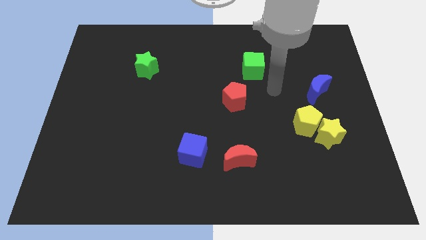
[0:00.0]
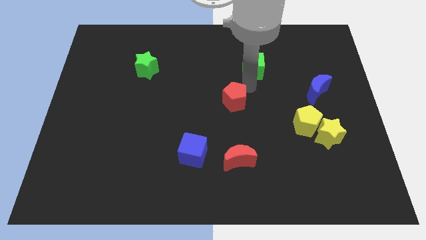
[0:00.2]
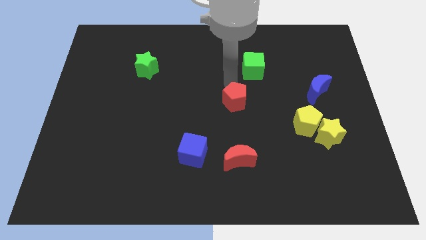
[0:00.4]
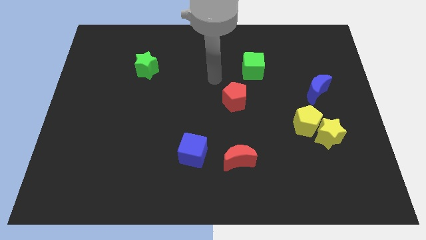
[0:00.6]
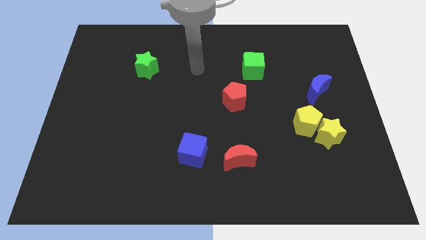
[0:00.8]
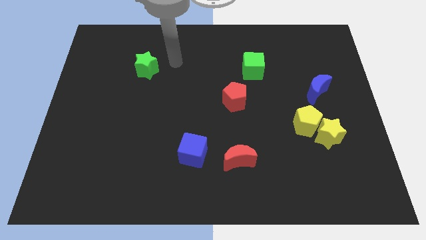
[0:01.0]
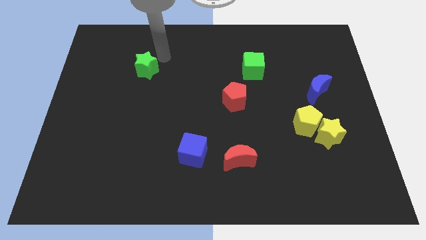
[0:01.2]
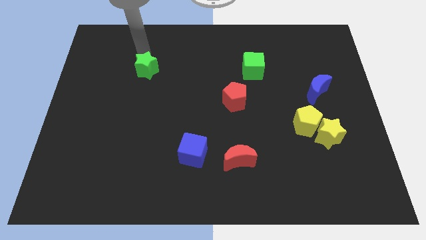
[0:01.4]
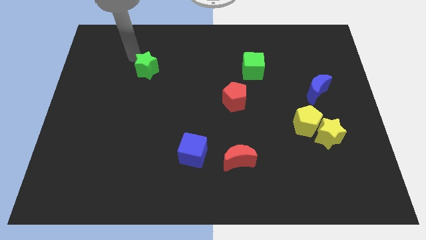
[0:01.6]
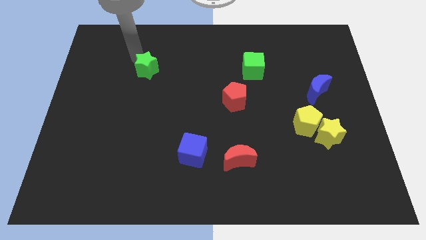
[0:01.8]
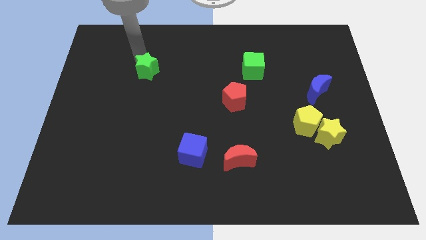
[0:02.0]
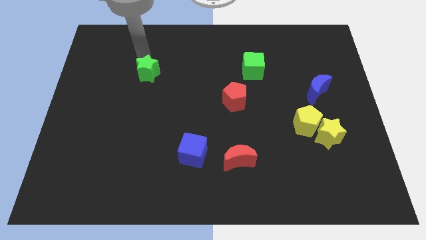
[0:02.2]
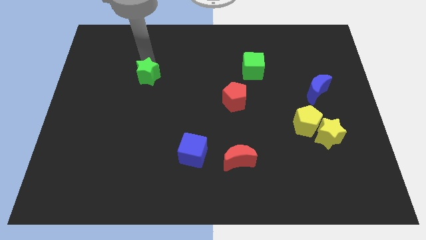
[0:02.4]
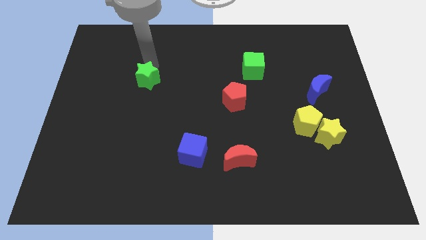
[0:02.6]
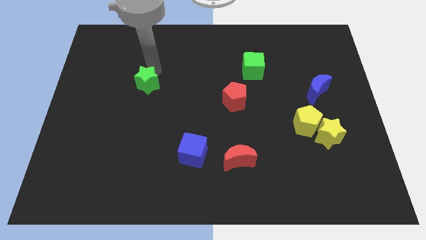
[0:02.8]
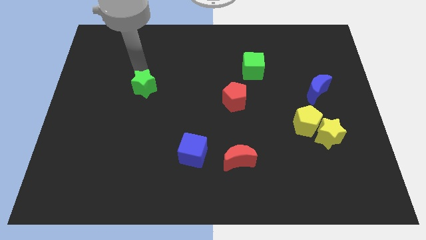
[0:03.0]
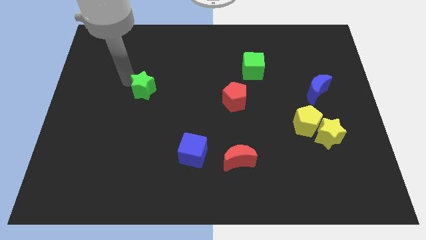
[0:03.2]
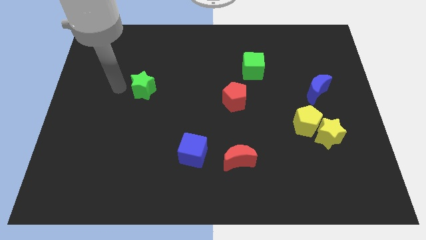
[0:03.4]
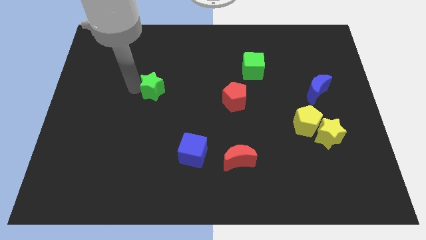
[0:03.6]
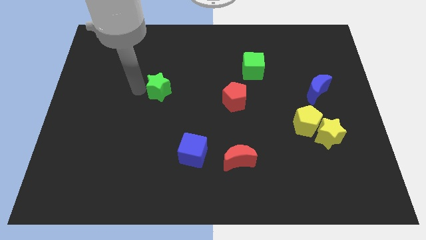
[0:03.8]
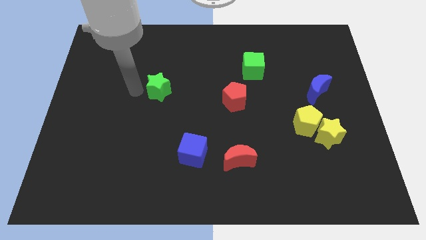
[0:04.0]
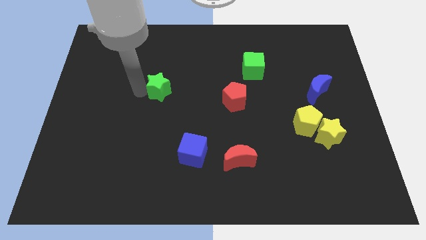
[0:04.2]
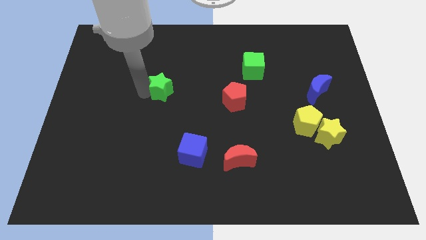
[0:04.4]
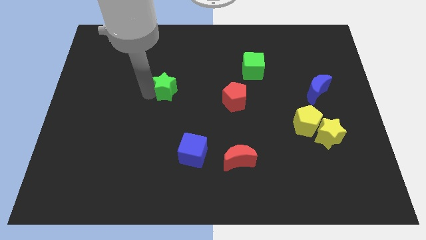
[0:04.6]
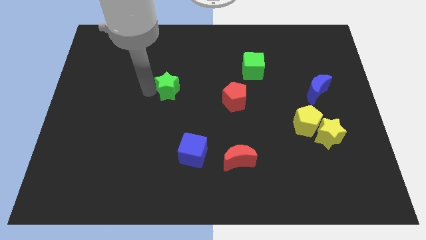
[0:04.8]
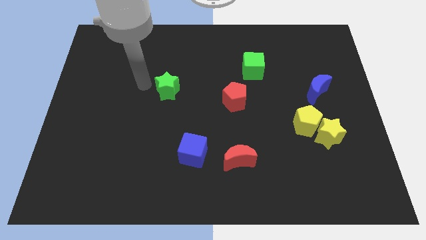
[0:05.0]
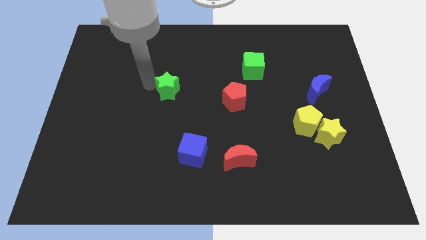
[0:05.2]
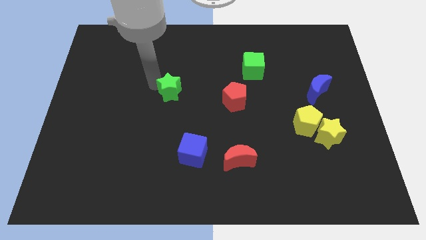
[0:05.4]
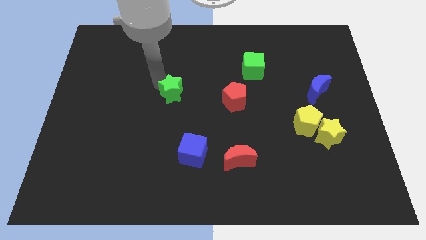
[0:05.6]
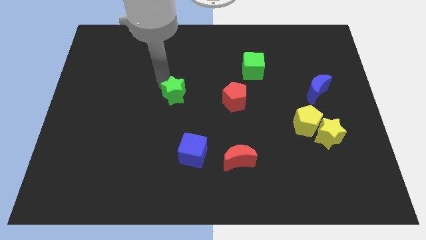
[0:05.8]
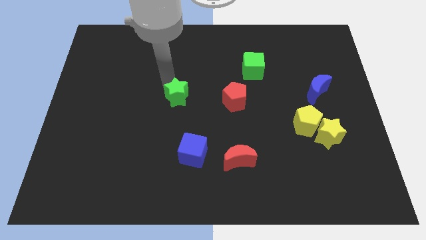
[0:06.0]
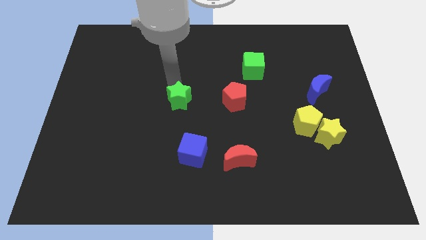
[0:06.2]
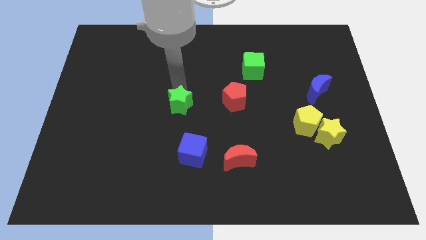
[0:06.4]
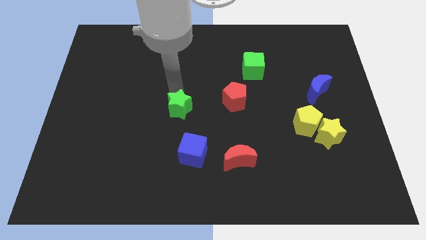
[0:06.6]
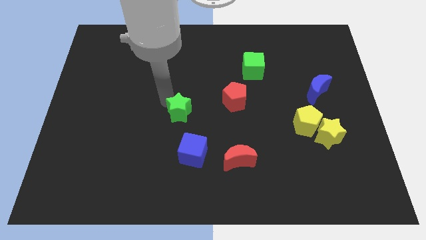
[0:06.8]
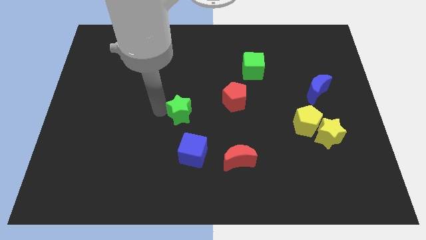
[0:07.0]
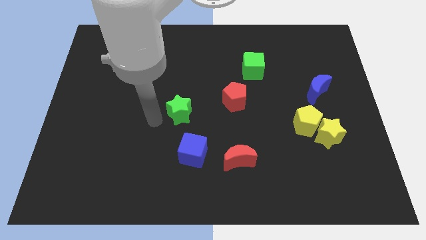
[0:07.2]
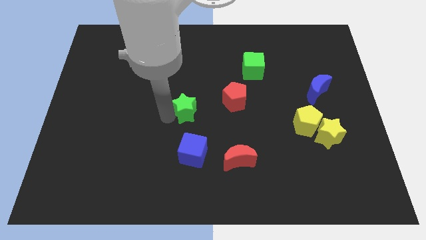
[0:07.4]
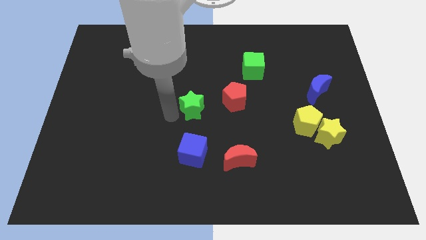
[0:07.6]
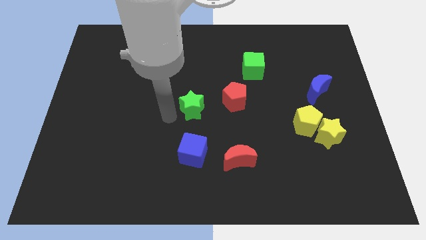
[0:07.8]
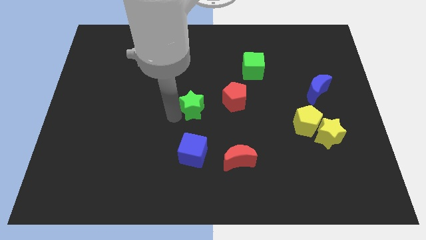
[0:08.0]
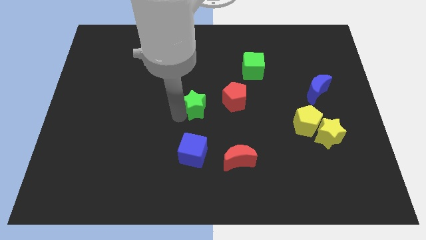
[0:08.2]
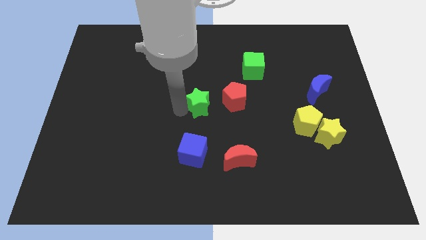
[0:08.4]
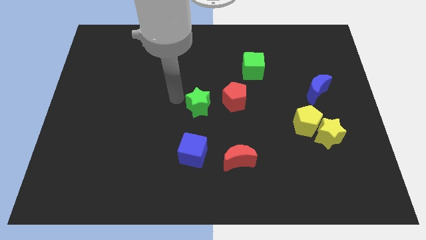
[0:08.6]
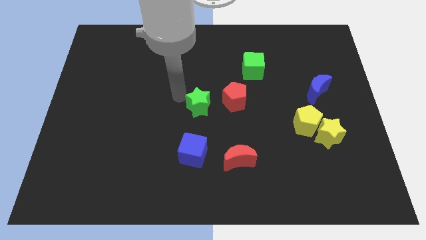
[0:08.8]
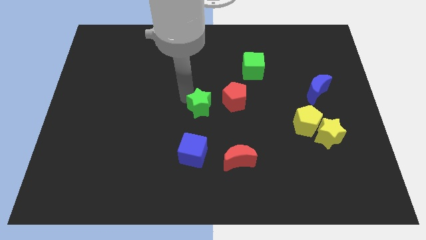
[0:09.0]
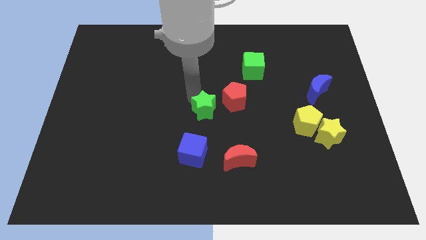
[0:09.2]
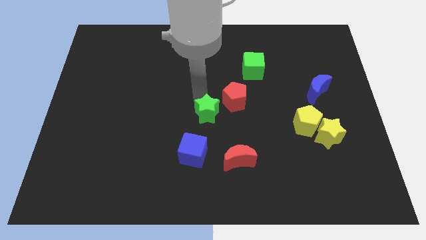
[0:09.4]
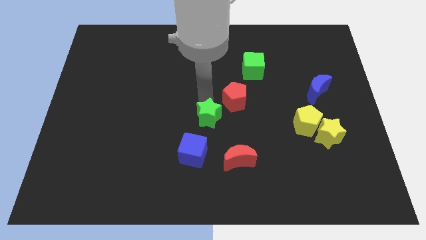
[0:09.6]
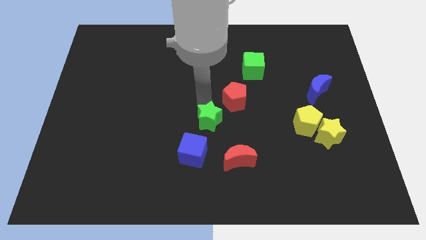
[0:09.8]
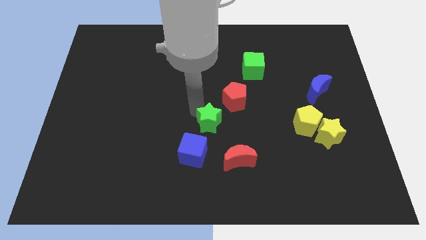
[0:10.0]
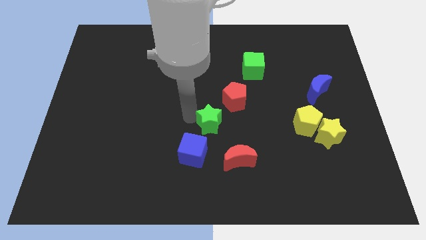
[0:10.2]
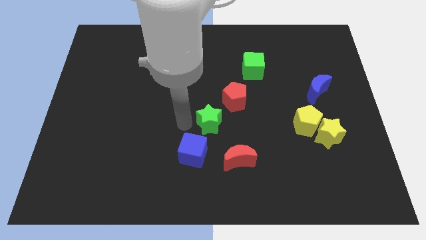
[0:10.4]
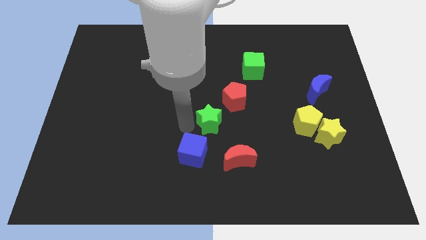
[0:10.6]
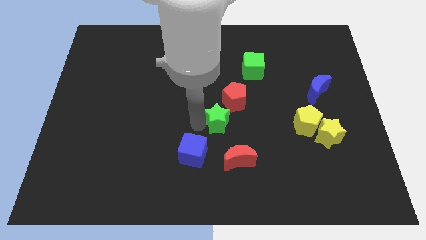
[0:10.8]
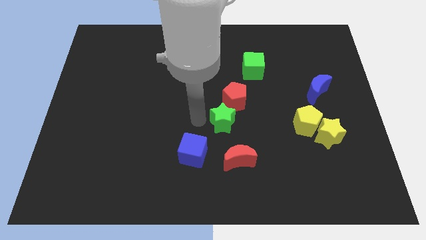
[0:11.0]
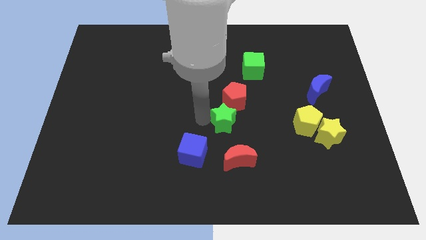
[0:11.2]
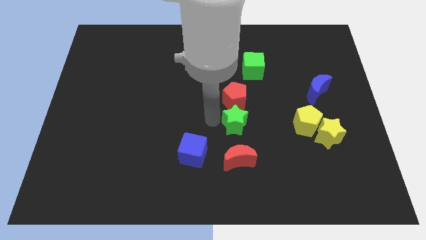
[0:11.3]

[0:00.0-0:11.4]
push the green star to the left of the yellow pentagon

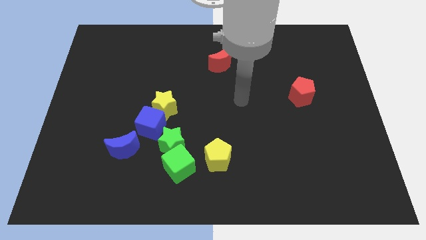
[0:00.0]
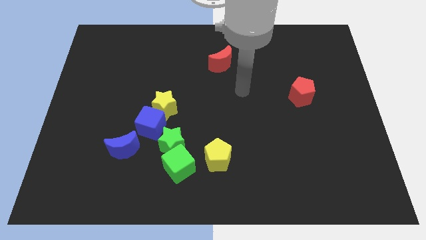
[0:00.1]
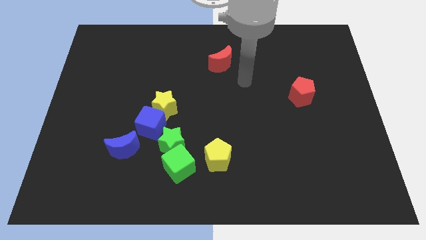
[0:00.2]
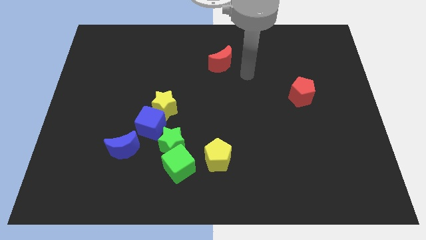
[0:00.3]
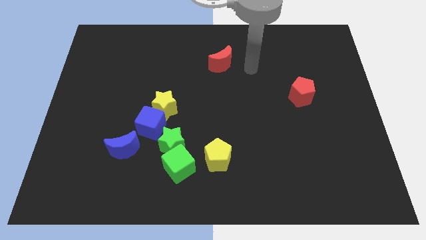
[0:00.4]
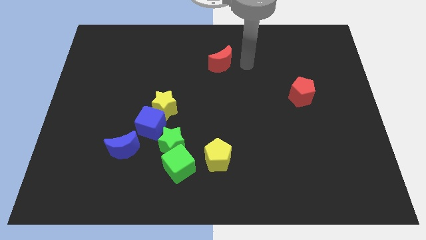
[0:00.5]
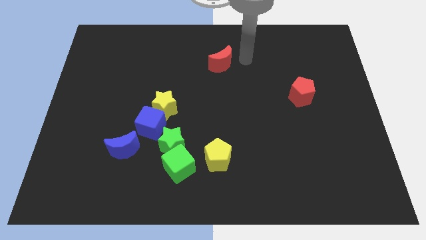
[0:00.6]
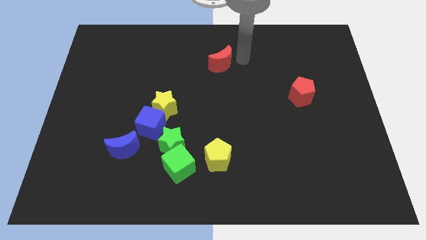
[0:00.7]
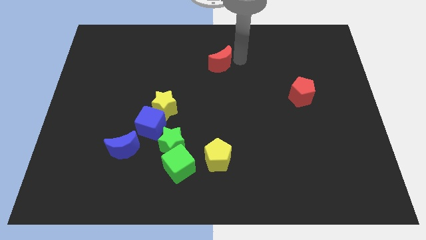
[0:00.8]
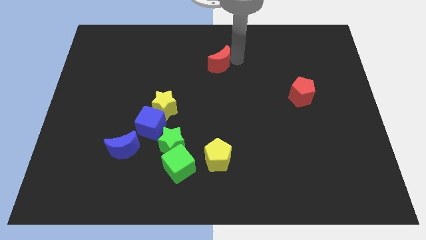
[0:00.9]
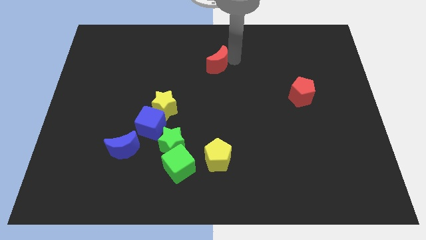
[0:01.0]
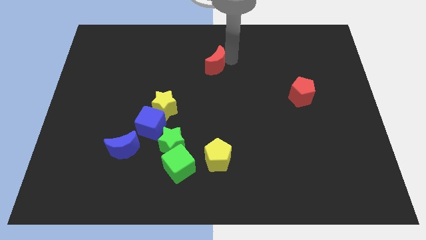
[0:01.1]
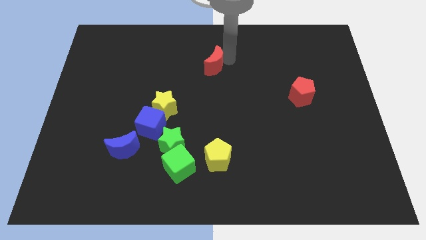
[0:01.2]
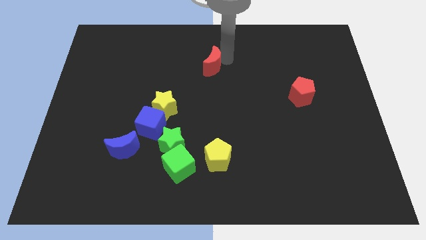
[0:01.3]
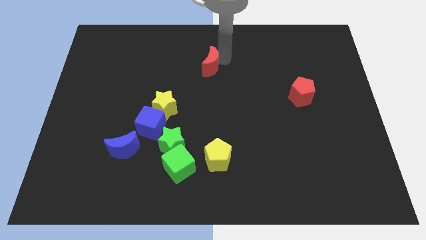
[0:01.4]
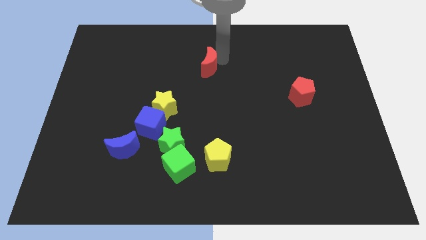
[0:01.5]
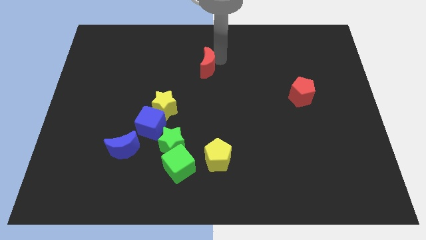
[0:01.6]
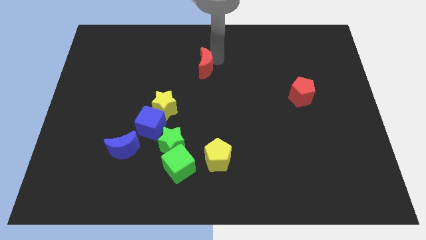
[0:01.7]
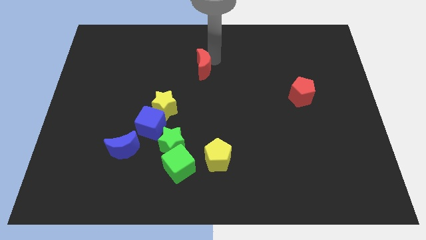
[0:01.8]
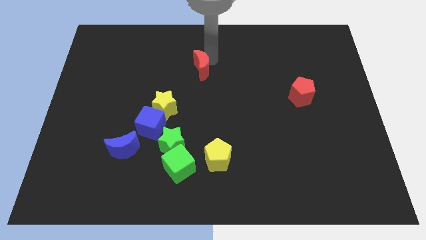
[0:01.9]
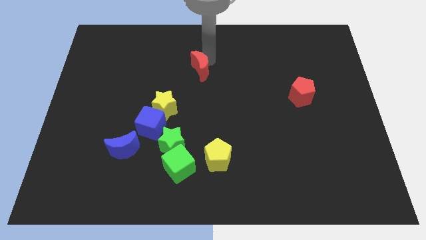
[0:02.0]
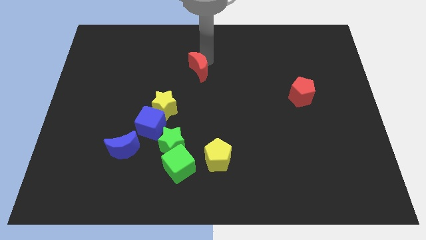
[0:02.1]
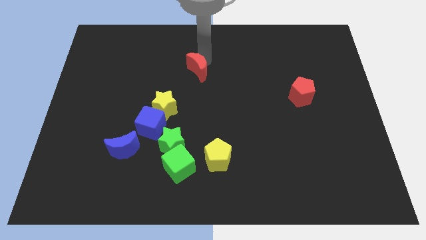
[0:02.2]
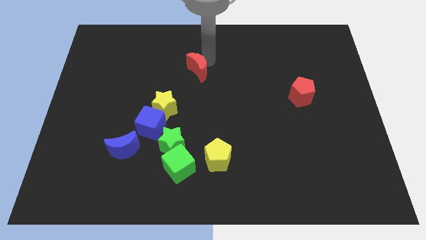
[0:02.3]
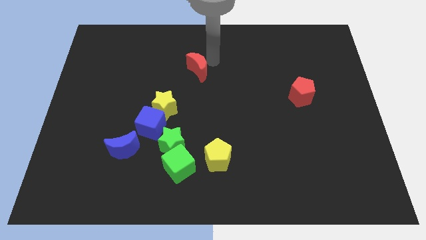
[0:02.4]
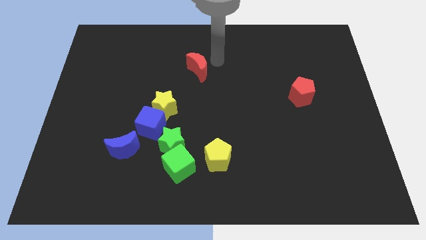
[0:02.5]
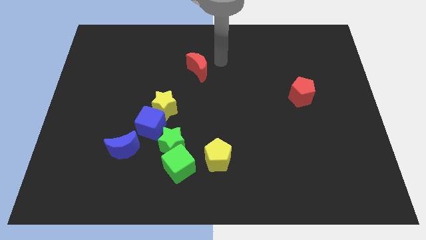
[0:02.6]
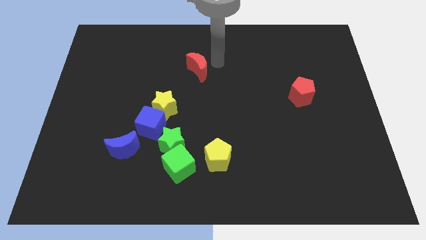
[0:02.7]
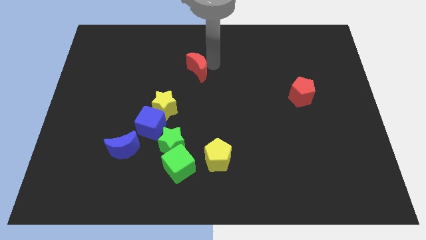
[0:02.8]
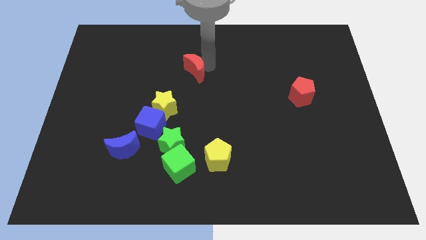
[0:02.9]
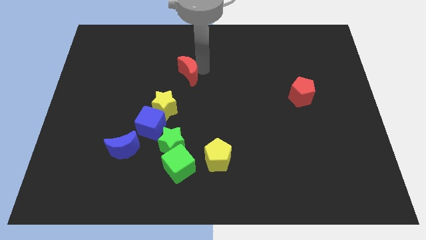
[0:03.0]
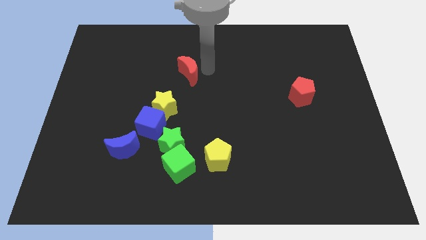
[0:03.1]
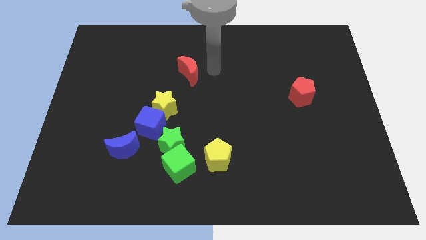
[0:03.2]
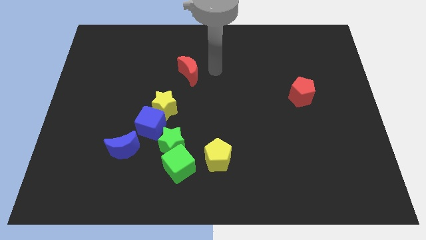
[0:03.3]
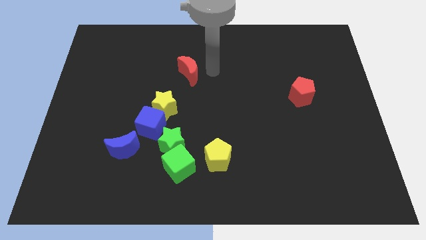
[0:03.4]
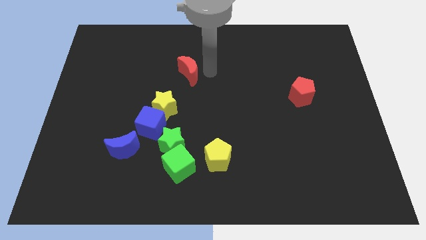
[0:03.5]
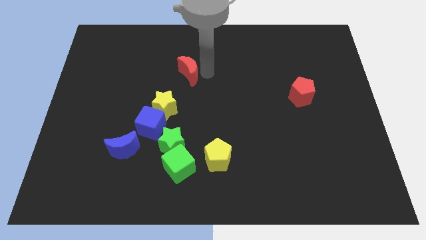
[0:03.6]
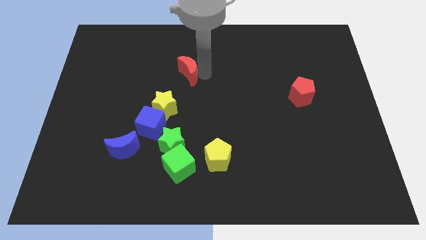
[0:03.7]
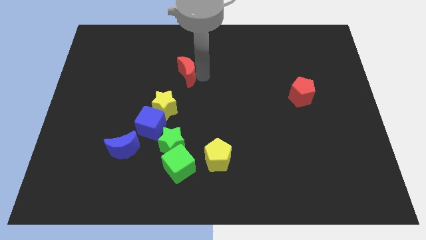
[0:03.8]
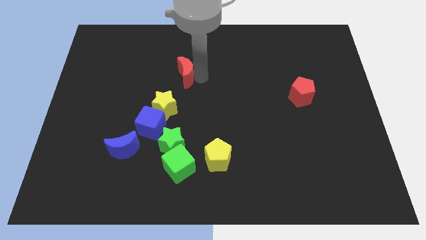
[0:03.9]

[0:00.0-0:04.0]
move the red moon above the yellow star
